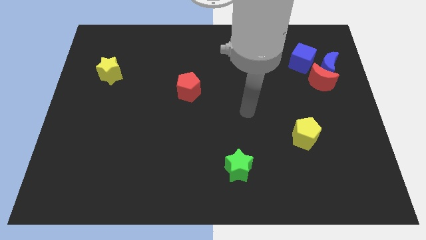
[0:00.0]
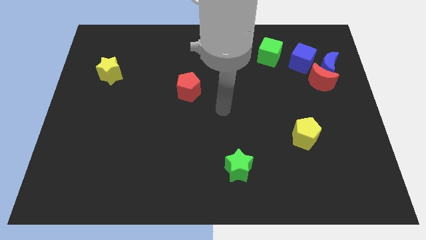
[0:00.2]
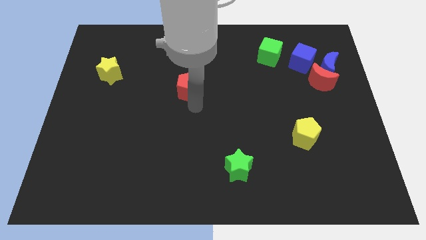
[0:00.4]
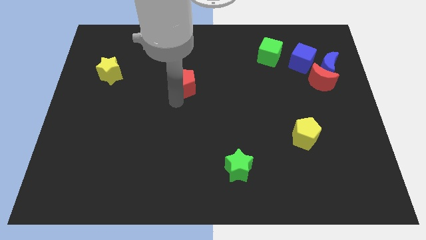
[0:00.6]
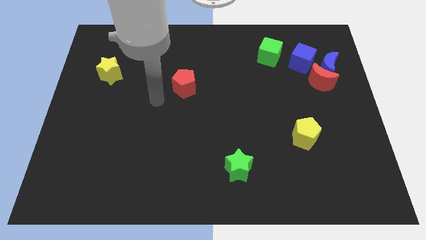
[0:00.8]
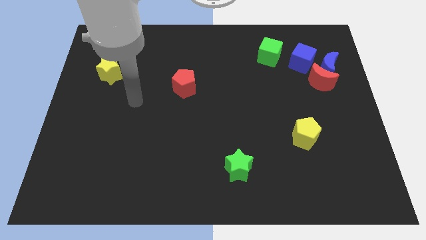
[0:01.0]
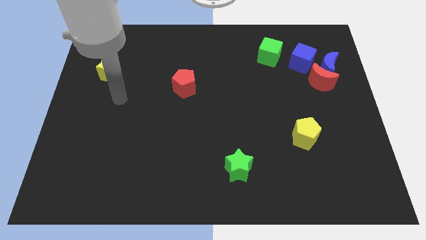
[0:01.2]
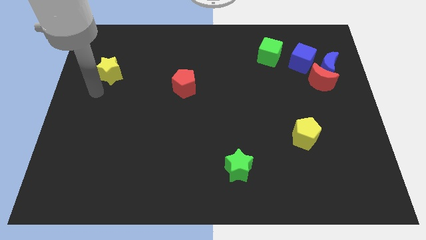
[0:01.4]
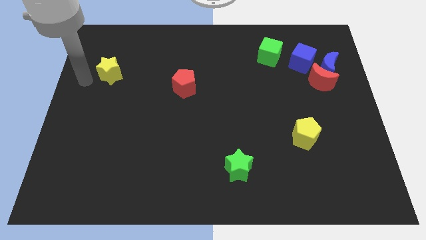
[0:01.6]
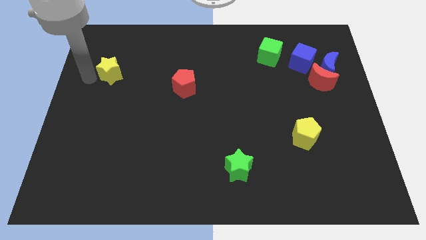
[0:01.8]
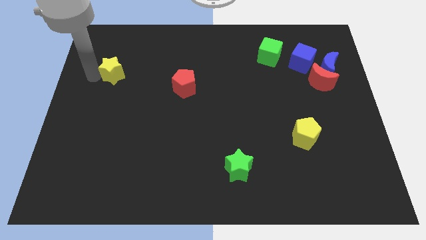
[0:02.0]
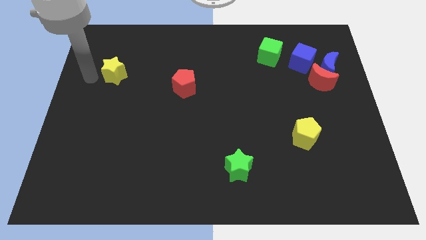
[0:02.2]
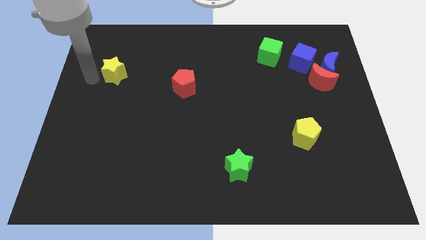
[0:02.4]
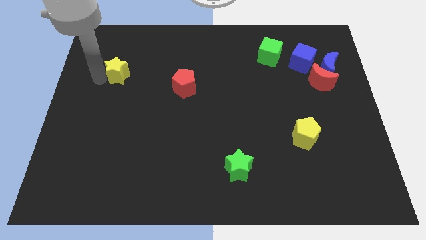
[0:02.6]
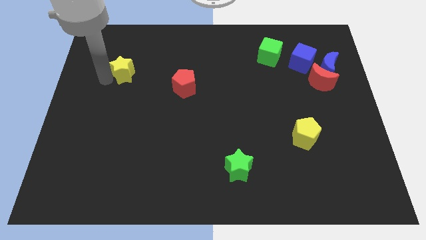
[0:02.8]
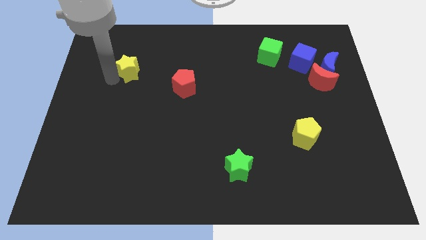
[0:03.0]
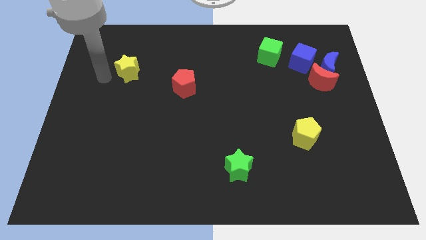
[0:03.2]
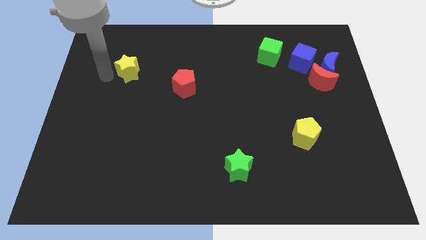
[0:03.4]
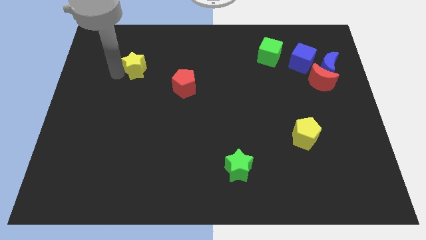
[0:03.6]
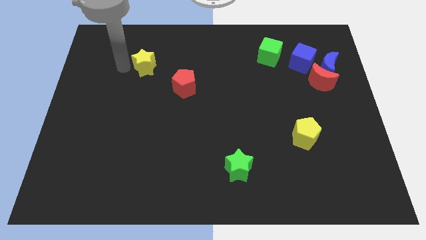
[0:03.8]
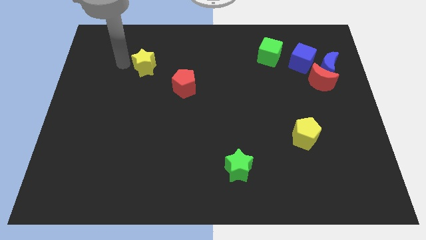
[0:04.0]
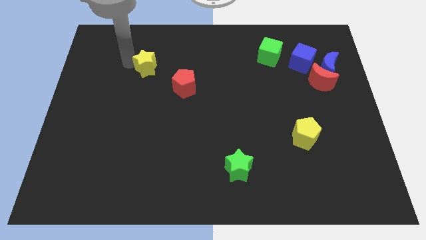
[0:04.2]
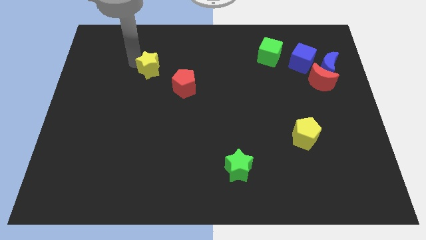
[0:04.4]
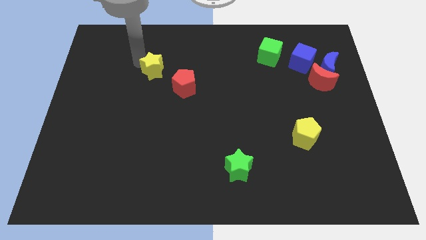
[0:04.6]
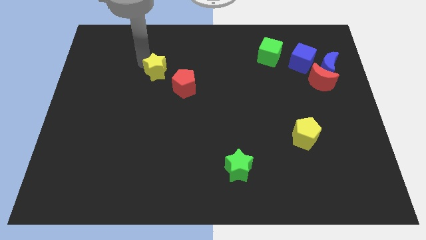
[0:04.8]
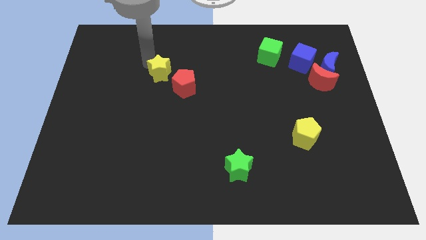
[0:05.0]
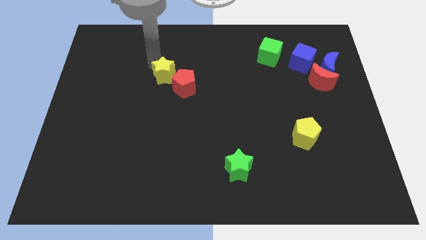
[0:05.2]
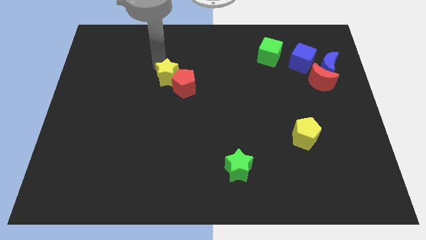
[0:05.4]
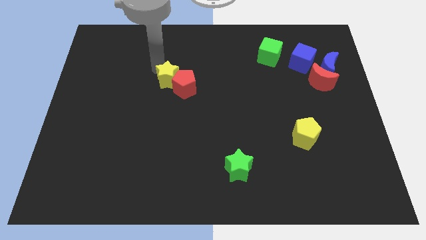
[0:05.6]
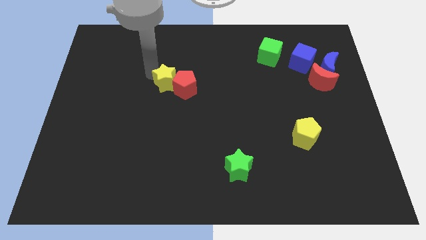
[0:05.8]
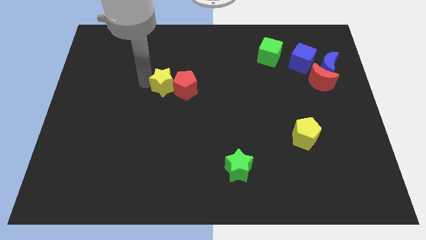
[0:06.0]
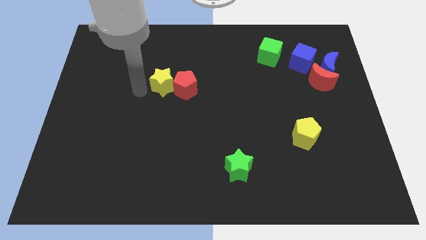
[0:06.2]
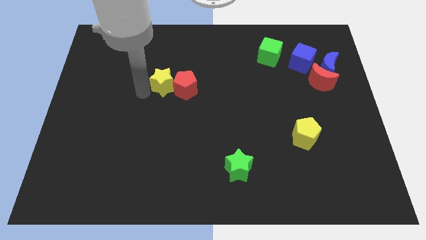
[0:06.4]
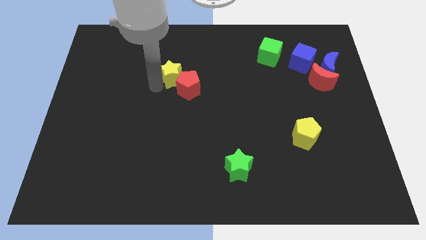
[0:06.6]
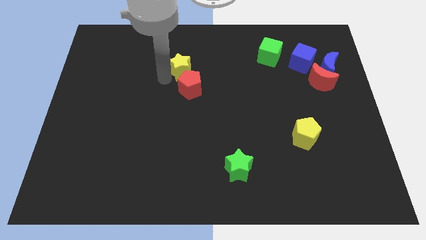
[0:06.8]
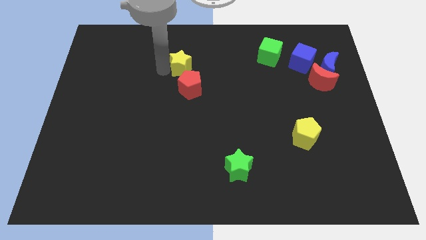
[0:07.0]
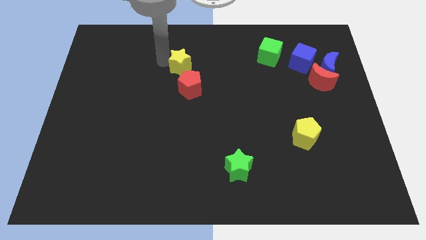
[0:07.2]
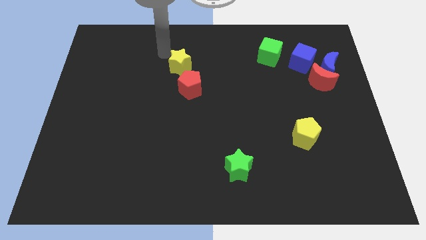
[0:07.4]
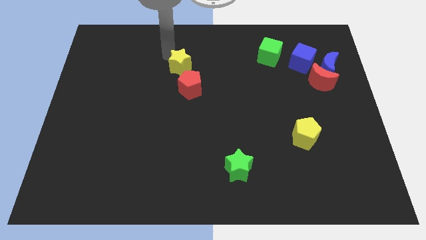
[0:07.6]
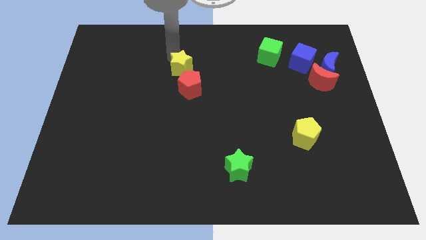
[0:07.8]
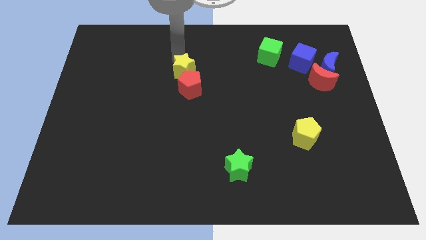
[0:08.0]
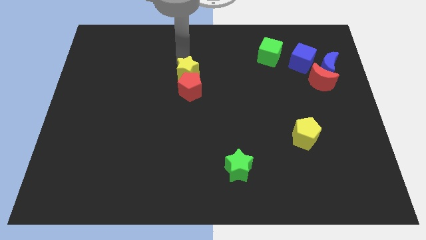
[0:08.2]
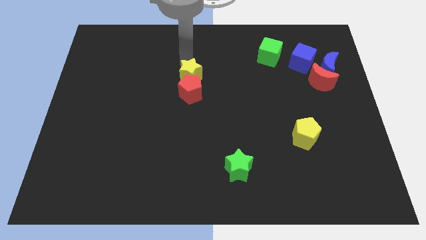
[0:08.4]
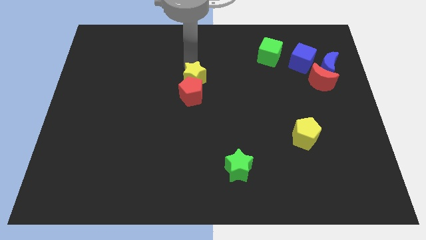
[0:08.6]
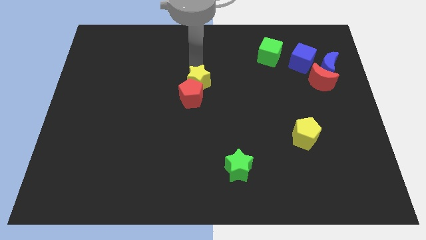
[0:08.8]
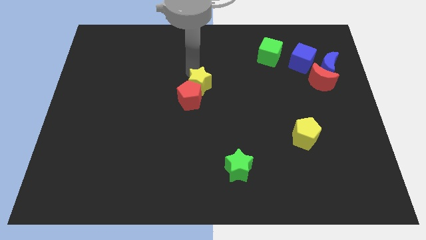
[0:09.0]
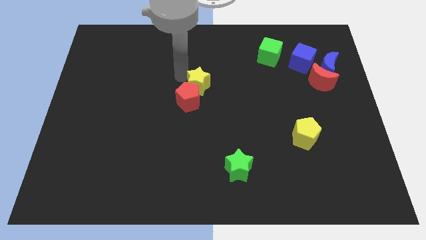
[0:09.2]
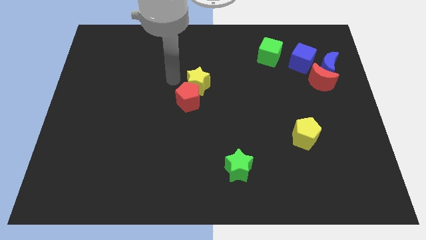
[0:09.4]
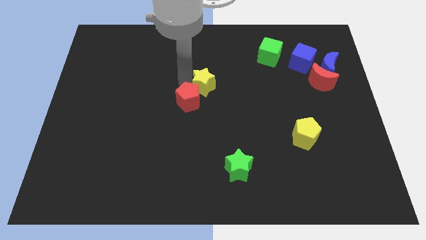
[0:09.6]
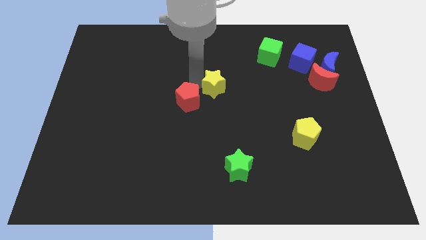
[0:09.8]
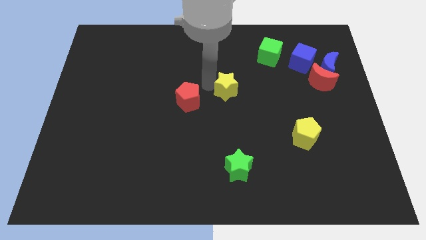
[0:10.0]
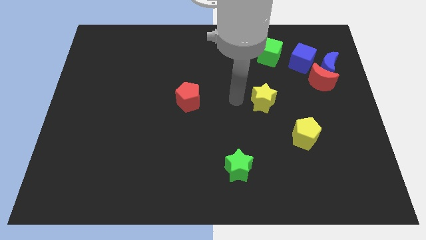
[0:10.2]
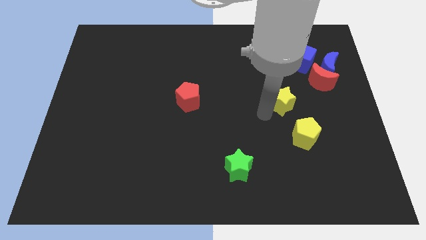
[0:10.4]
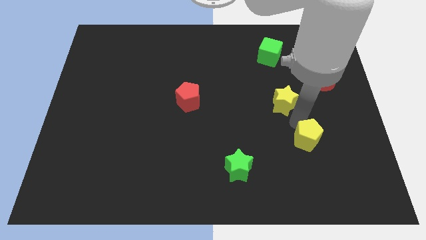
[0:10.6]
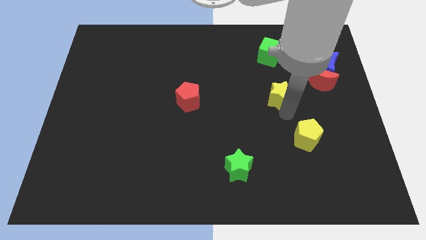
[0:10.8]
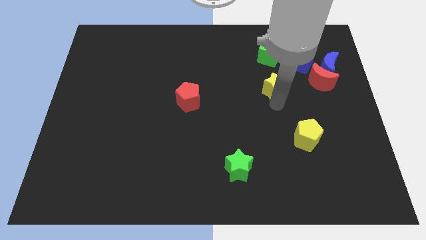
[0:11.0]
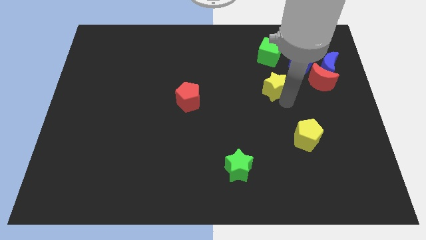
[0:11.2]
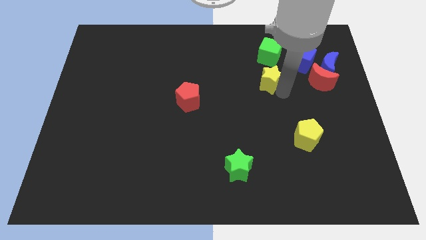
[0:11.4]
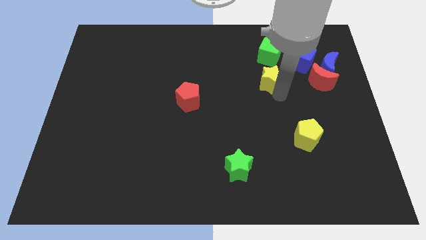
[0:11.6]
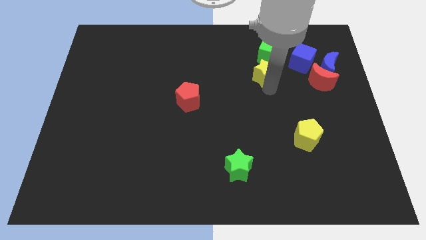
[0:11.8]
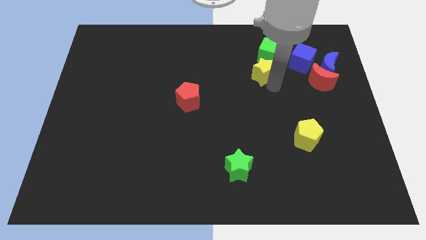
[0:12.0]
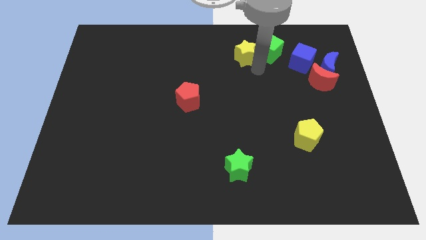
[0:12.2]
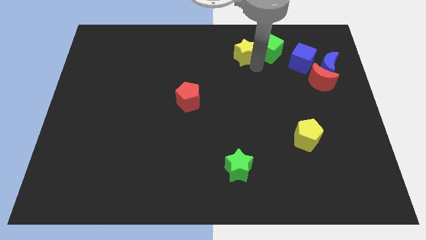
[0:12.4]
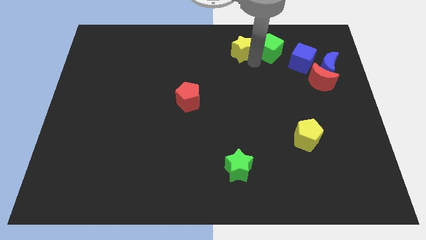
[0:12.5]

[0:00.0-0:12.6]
put the yellow star to the top
